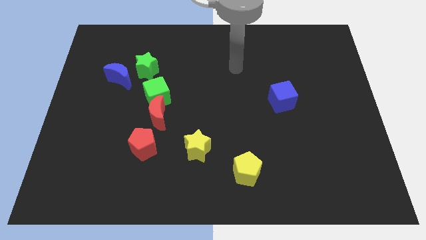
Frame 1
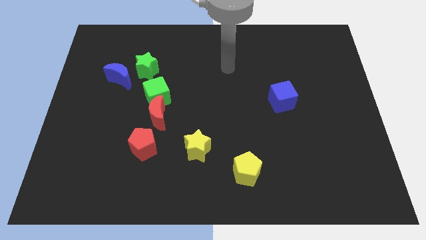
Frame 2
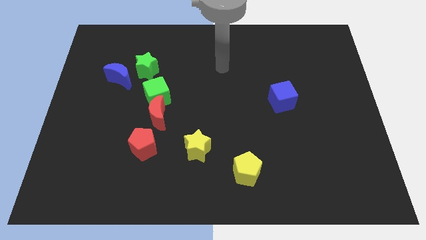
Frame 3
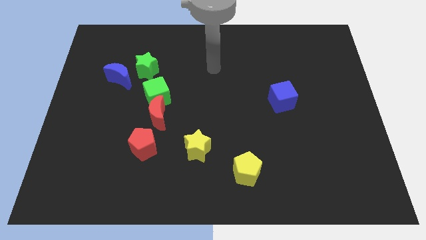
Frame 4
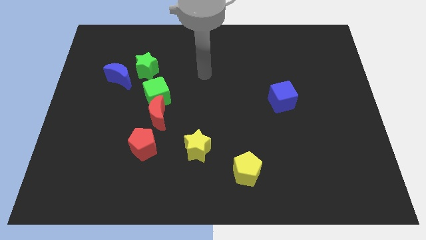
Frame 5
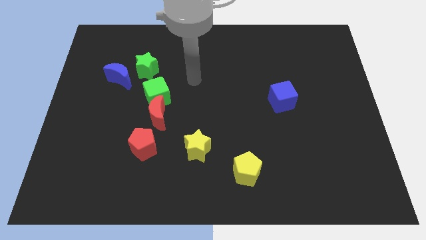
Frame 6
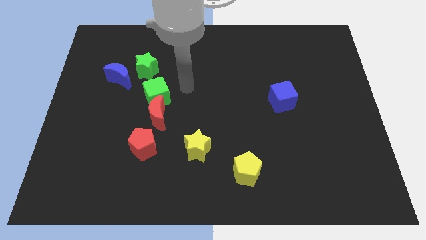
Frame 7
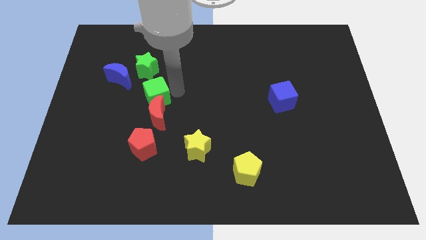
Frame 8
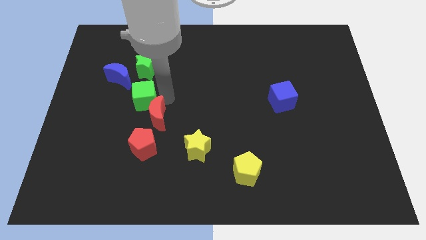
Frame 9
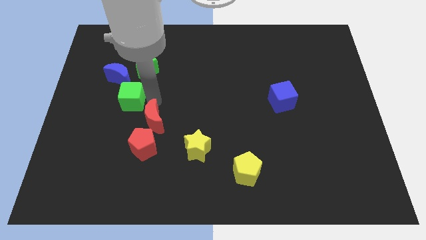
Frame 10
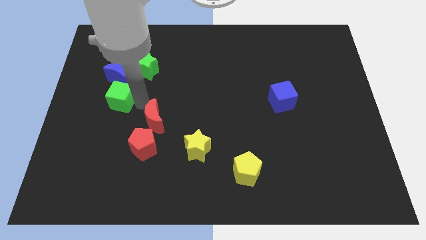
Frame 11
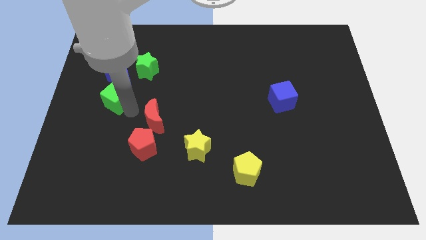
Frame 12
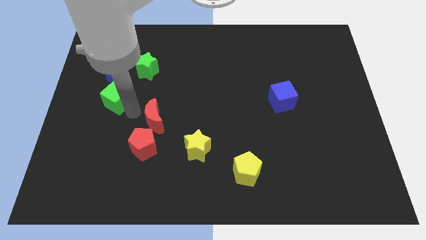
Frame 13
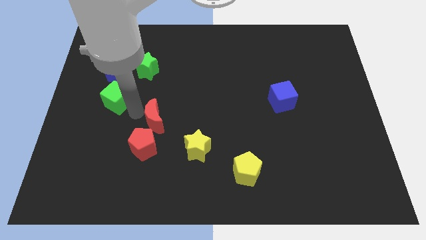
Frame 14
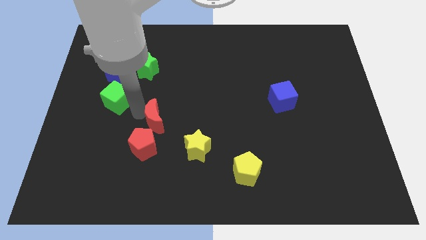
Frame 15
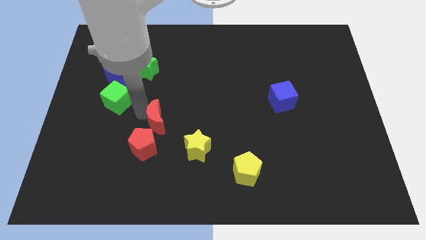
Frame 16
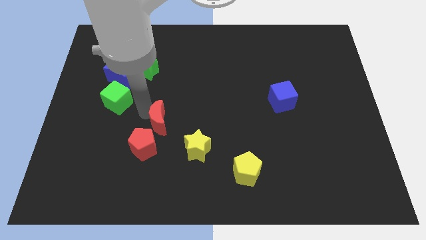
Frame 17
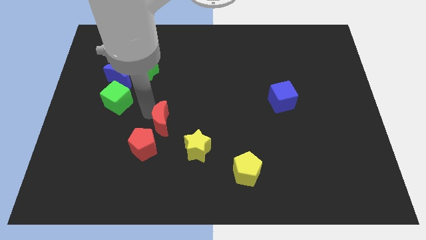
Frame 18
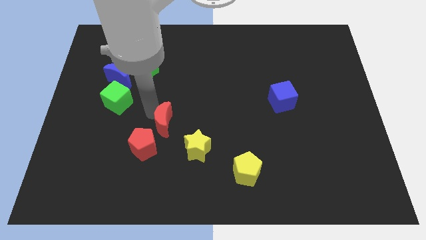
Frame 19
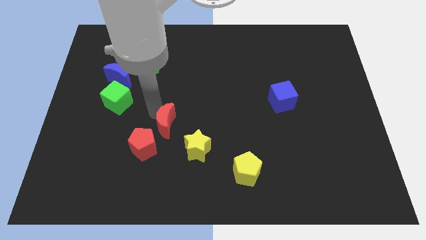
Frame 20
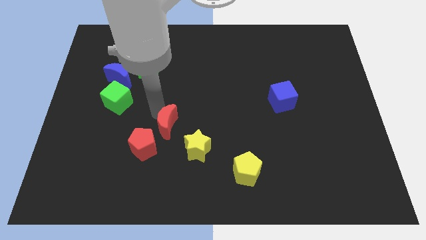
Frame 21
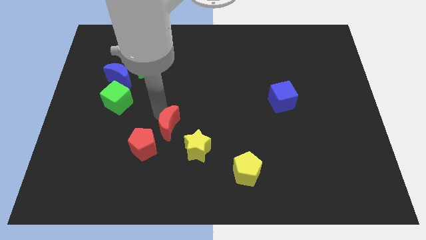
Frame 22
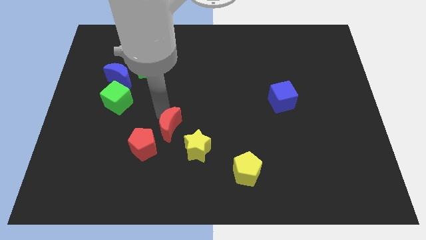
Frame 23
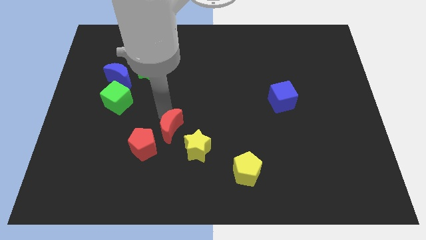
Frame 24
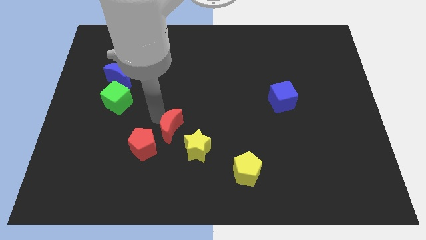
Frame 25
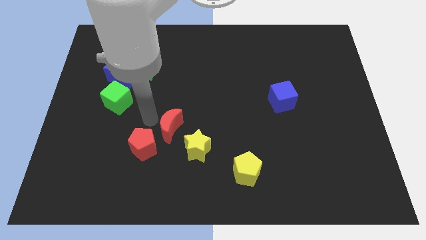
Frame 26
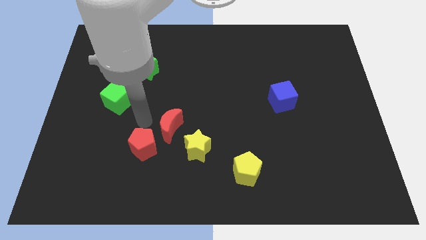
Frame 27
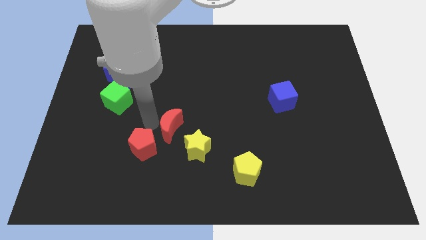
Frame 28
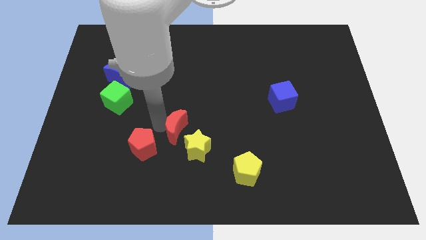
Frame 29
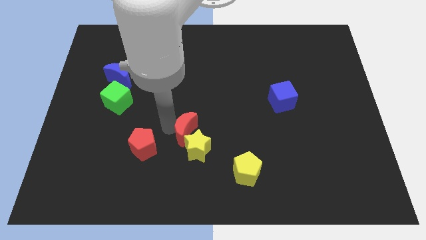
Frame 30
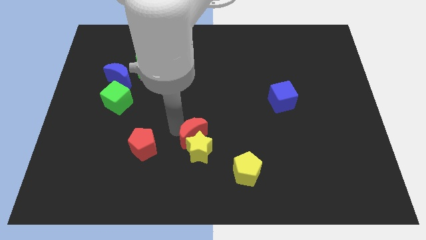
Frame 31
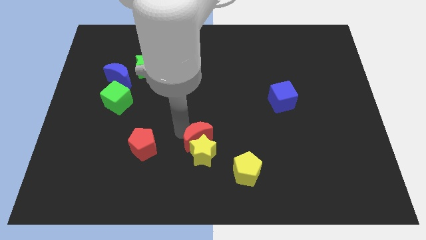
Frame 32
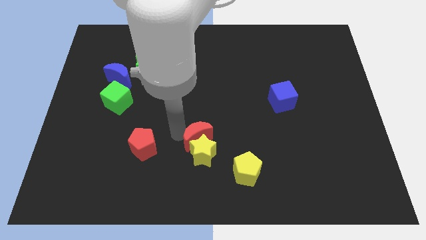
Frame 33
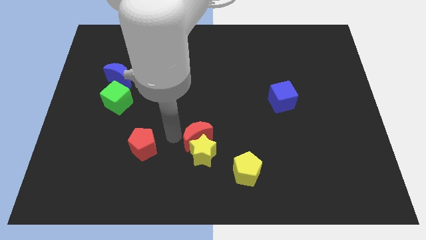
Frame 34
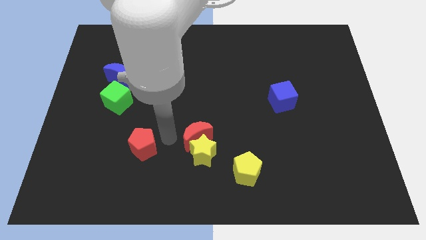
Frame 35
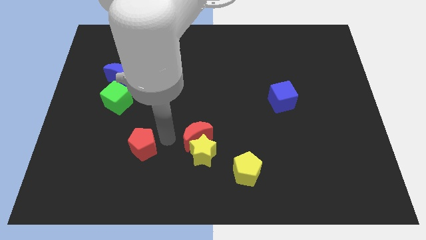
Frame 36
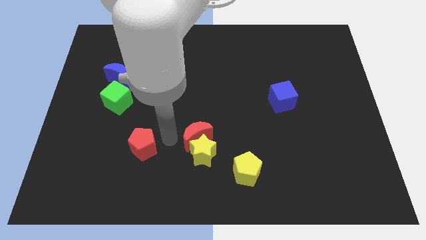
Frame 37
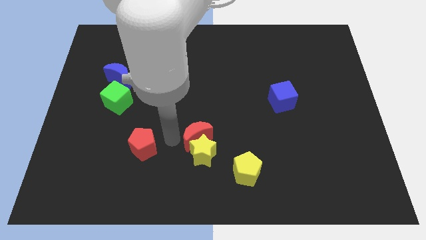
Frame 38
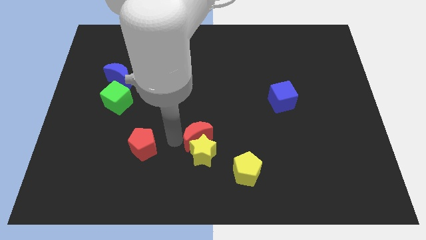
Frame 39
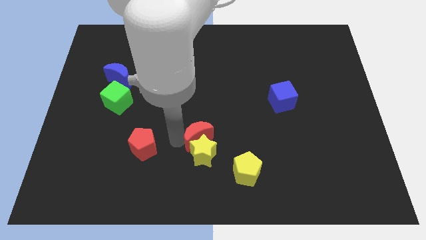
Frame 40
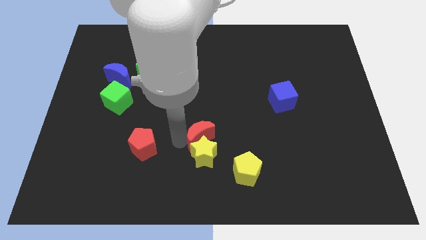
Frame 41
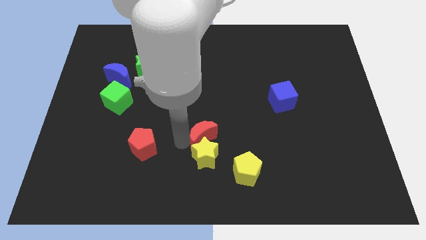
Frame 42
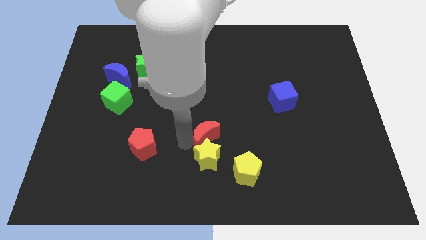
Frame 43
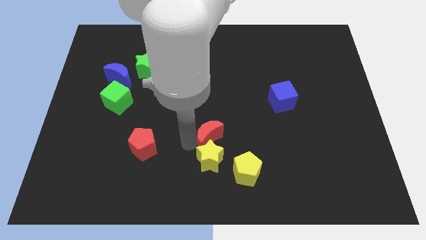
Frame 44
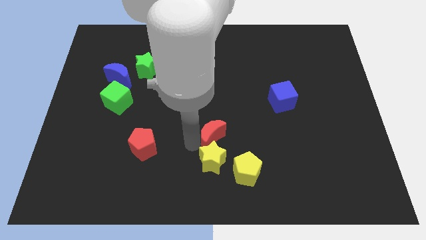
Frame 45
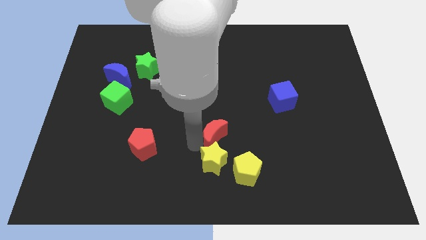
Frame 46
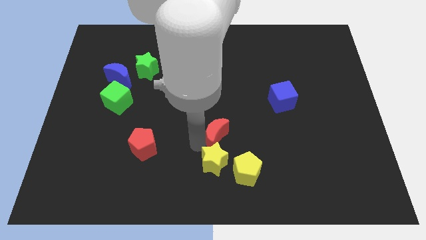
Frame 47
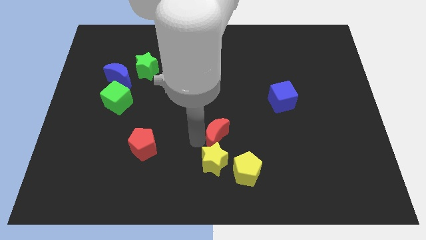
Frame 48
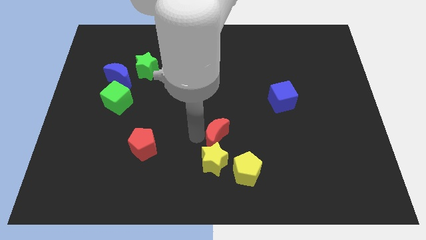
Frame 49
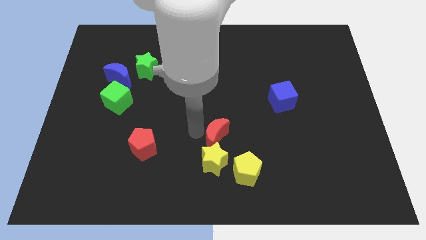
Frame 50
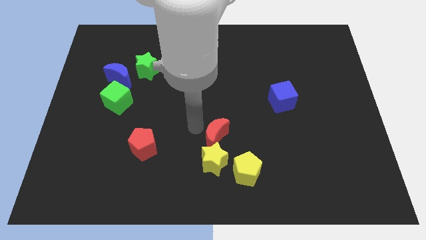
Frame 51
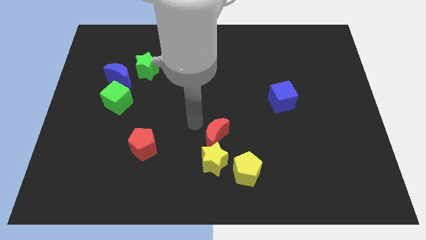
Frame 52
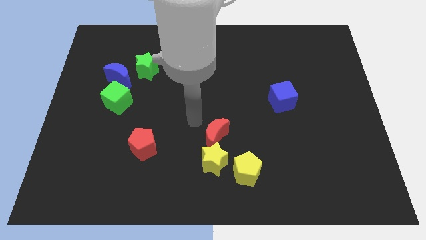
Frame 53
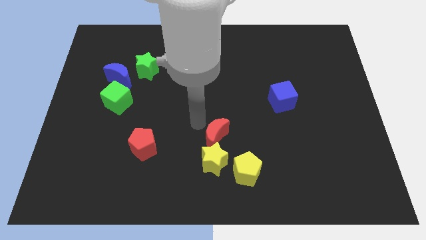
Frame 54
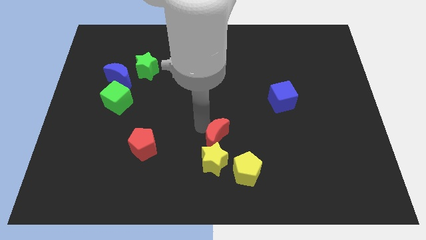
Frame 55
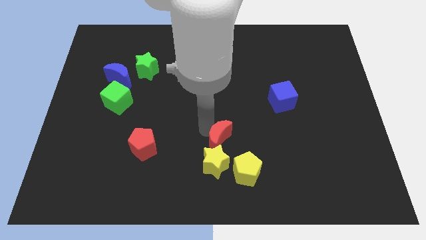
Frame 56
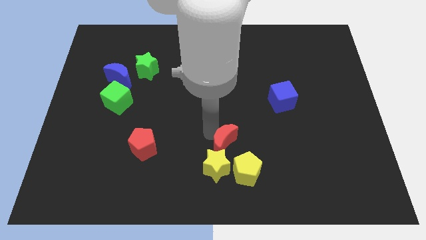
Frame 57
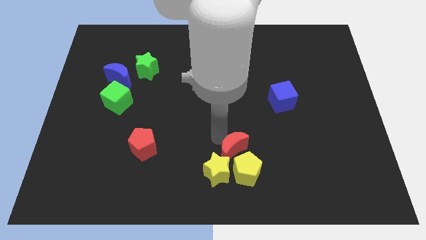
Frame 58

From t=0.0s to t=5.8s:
push the red moon next to the yellow pentagon
